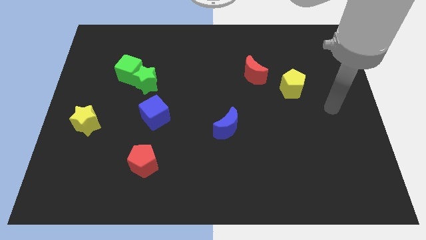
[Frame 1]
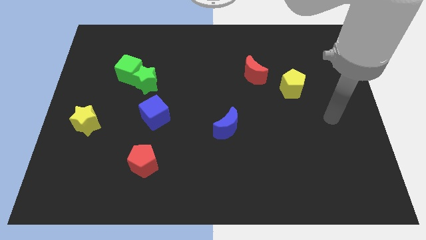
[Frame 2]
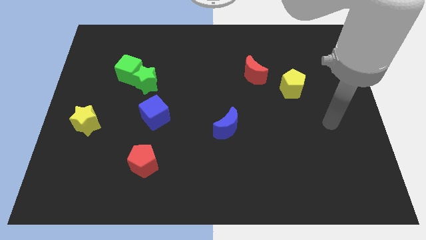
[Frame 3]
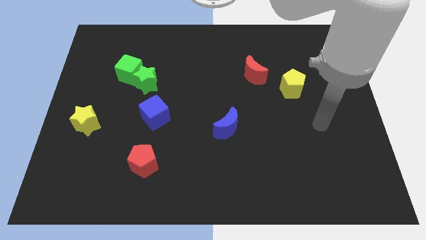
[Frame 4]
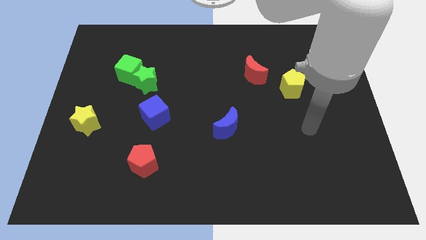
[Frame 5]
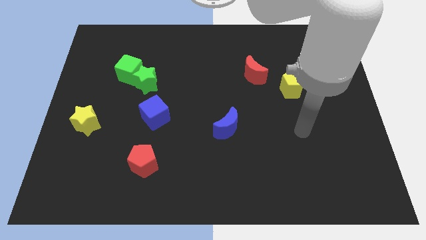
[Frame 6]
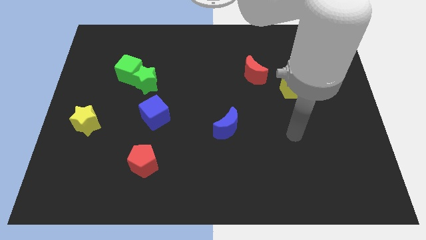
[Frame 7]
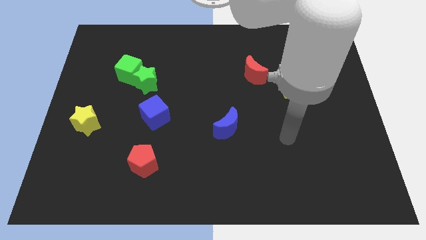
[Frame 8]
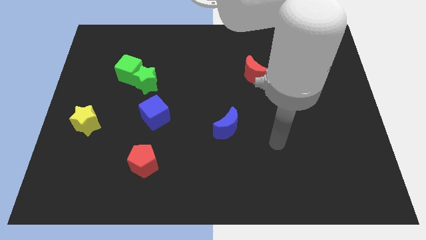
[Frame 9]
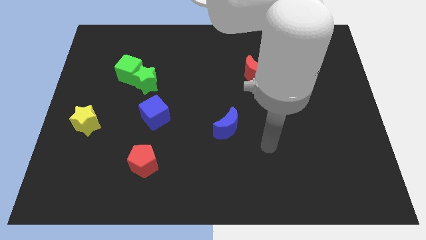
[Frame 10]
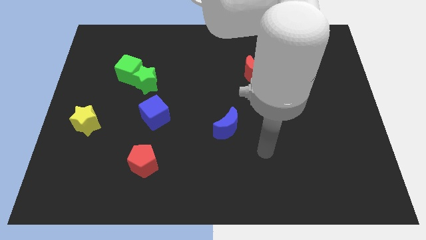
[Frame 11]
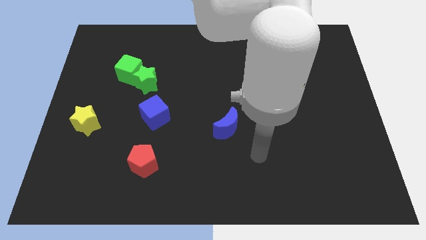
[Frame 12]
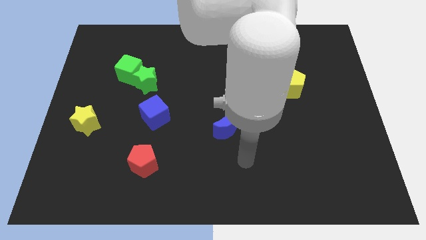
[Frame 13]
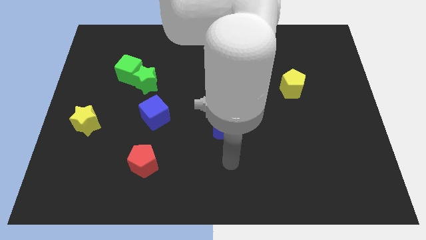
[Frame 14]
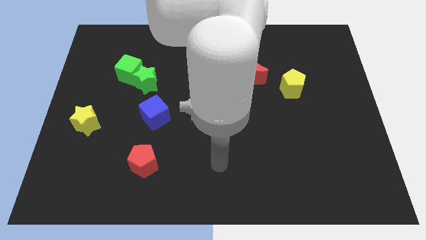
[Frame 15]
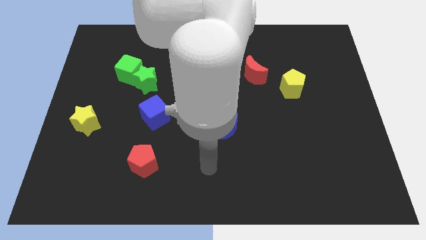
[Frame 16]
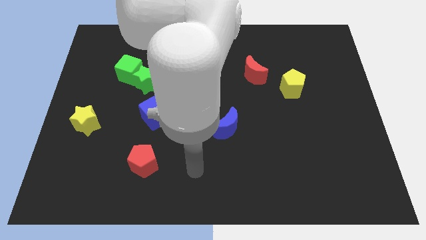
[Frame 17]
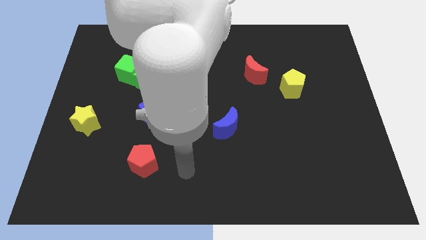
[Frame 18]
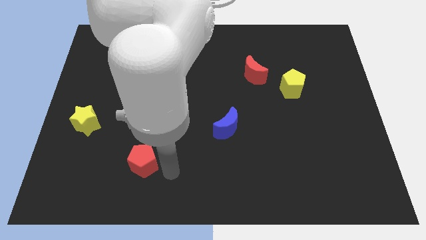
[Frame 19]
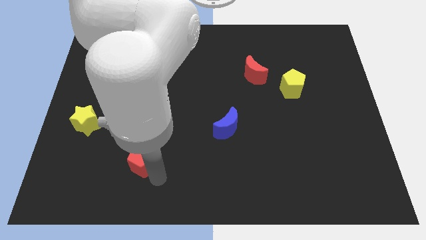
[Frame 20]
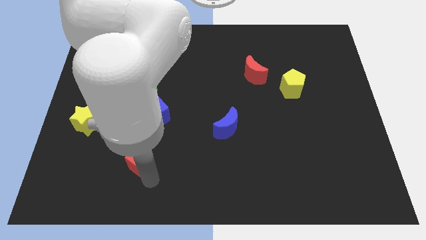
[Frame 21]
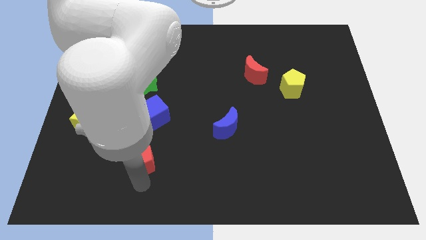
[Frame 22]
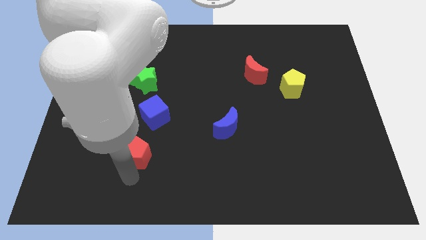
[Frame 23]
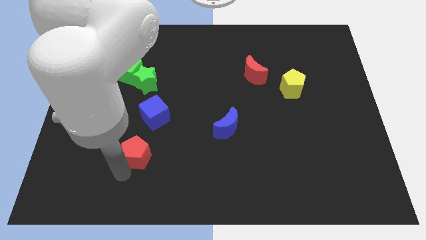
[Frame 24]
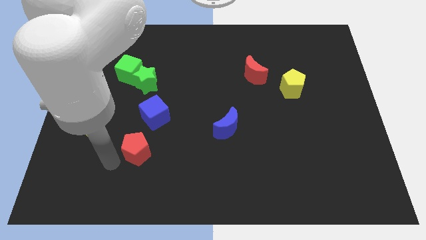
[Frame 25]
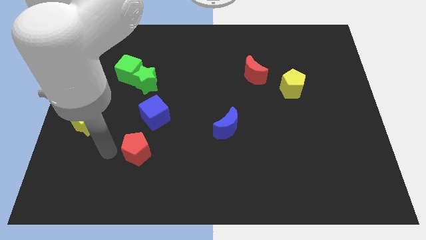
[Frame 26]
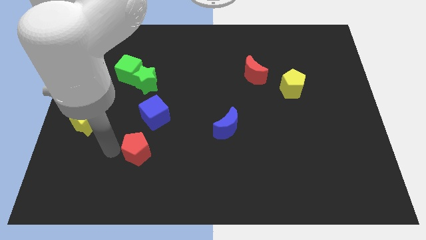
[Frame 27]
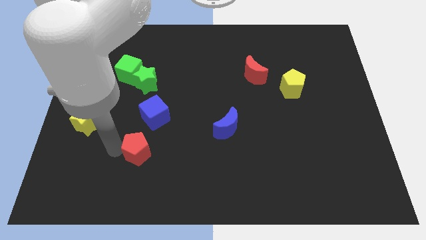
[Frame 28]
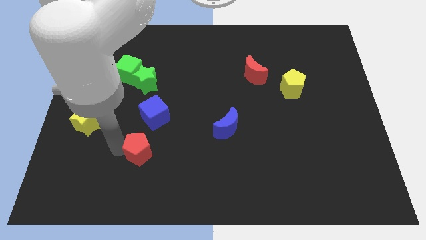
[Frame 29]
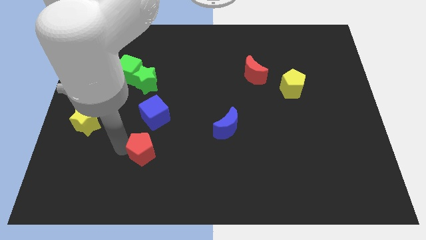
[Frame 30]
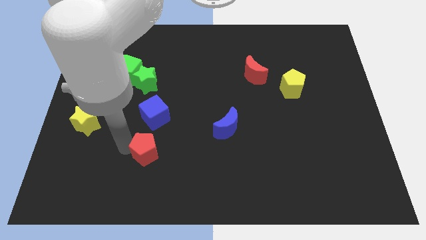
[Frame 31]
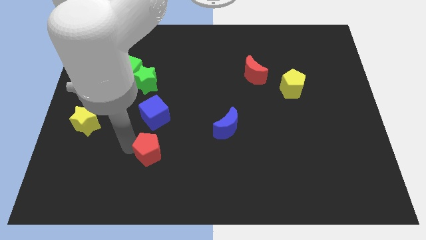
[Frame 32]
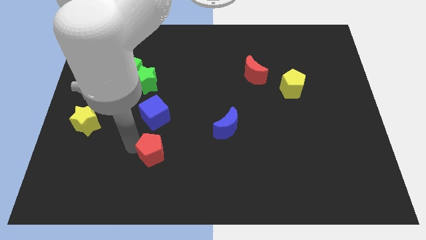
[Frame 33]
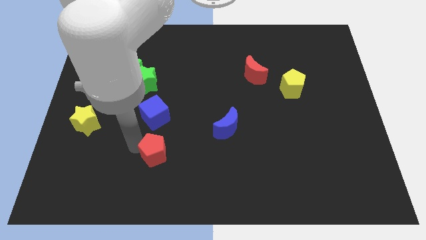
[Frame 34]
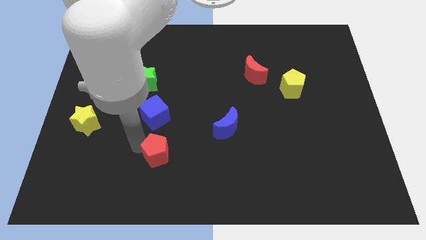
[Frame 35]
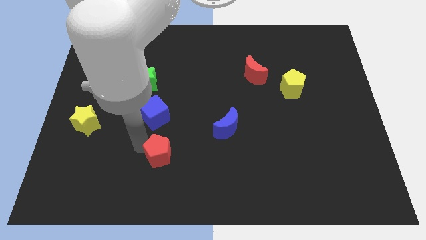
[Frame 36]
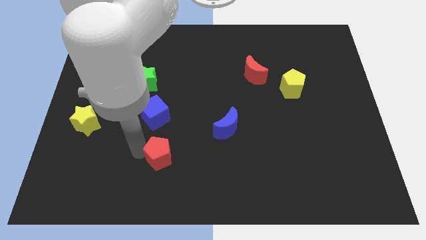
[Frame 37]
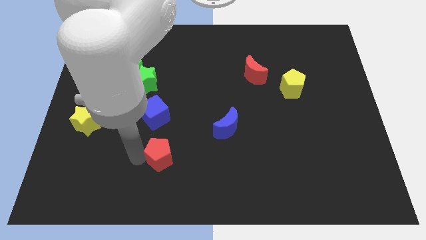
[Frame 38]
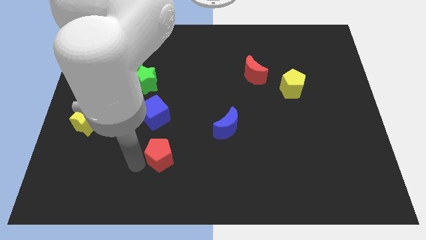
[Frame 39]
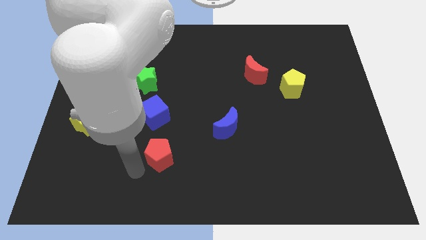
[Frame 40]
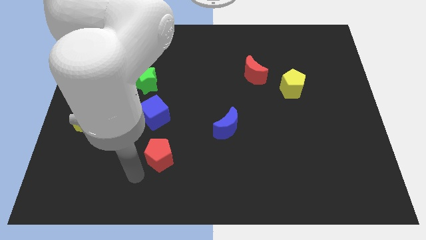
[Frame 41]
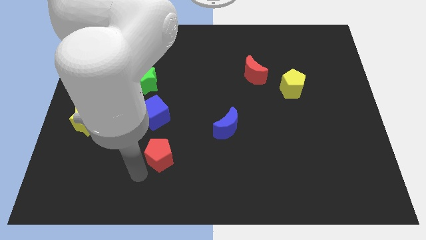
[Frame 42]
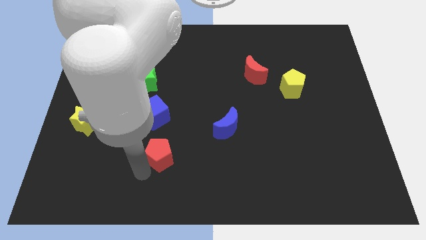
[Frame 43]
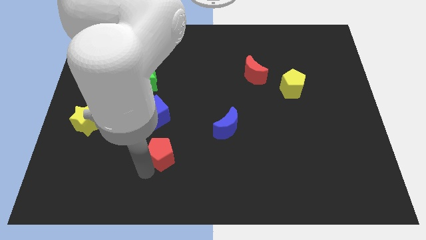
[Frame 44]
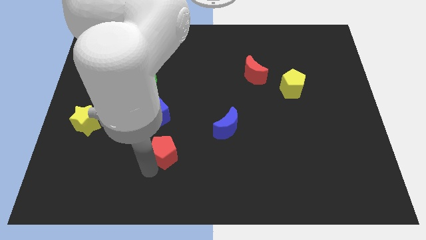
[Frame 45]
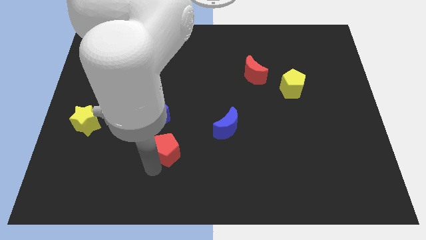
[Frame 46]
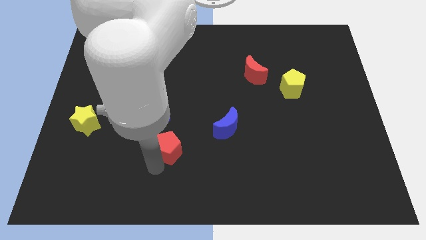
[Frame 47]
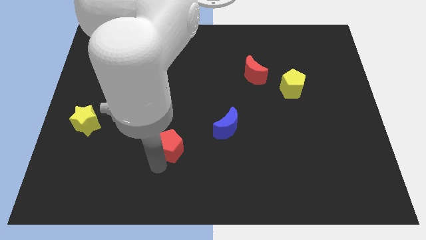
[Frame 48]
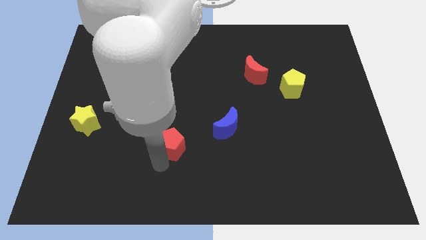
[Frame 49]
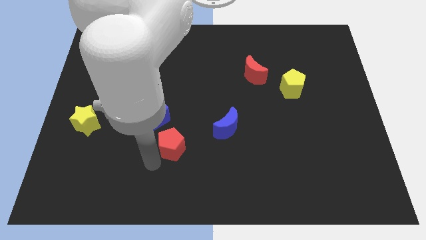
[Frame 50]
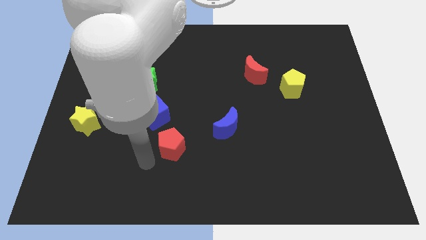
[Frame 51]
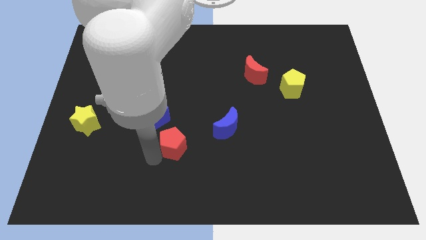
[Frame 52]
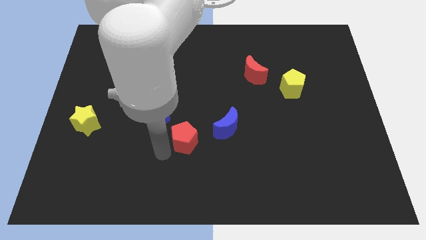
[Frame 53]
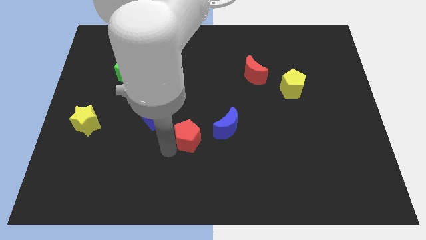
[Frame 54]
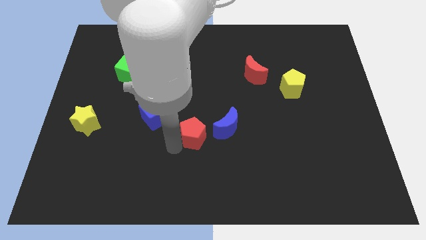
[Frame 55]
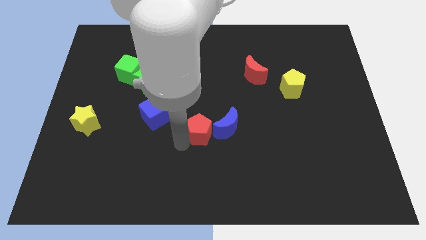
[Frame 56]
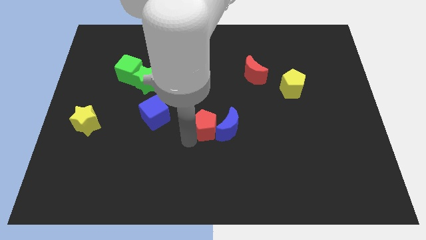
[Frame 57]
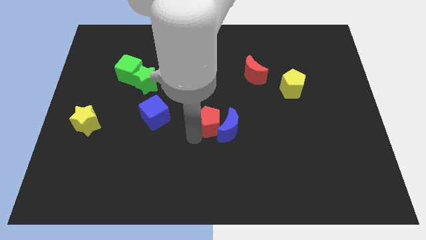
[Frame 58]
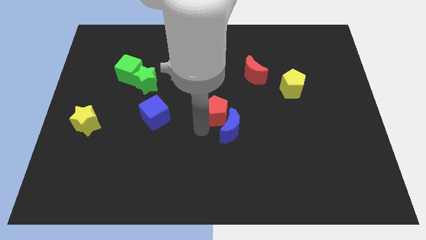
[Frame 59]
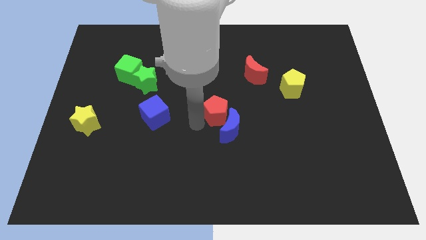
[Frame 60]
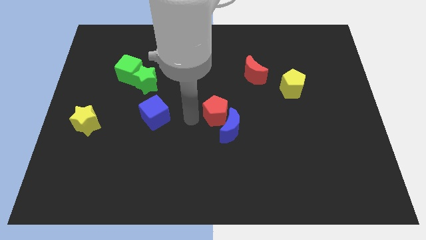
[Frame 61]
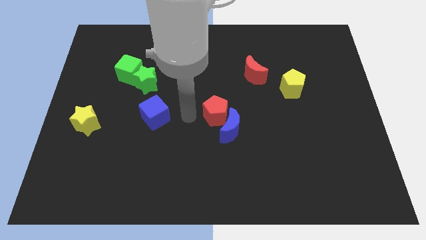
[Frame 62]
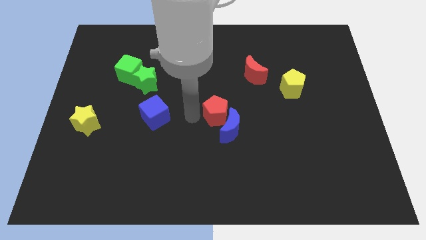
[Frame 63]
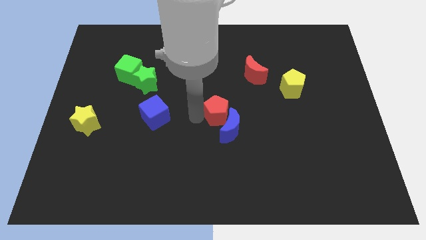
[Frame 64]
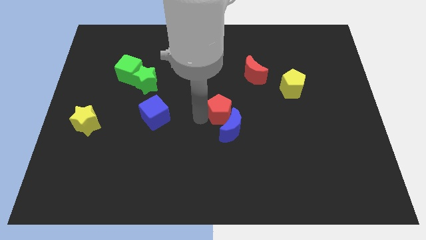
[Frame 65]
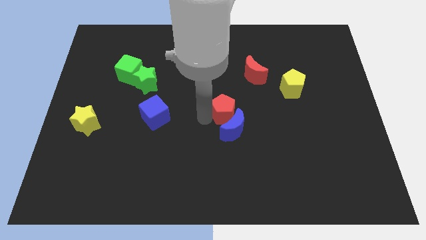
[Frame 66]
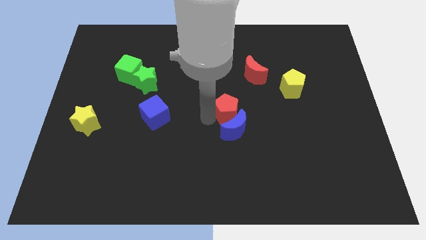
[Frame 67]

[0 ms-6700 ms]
push the red pentagon diagonally up and to the right of the blue moon

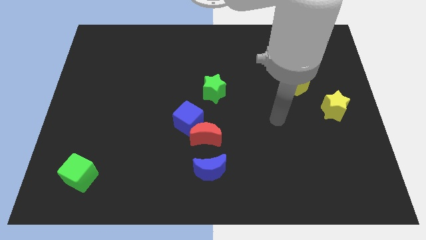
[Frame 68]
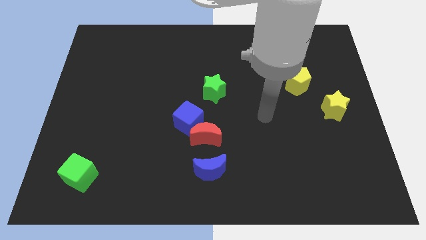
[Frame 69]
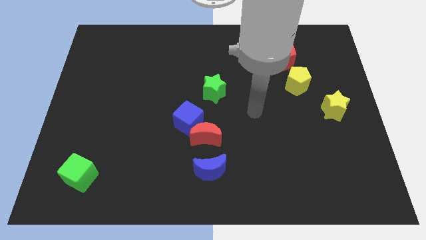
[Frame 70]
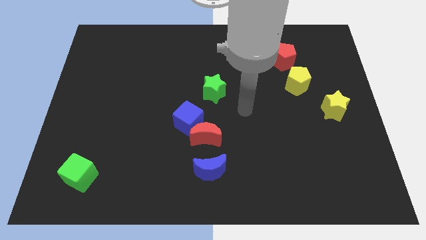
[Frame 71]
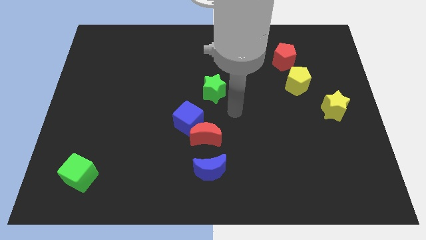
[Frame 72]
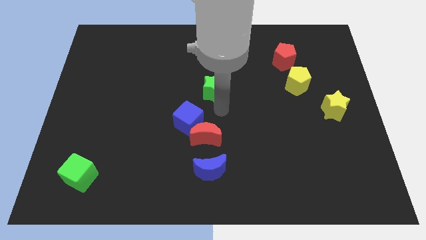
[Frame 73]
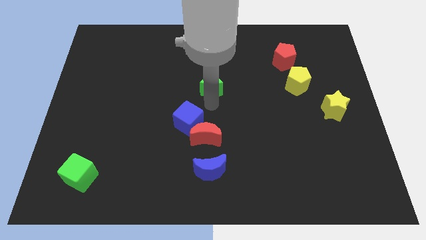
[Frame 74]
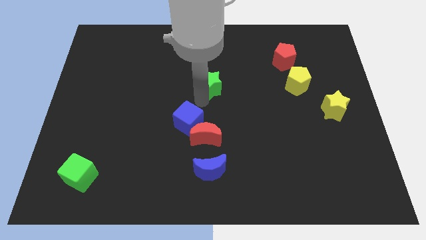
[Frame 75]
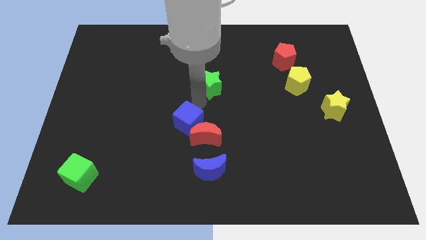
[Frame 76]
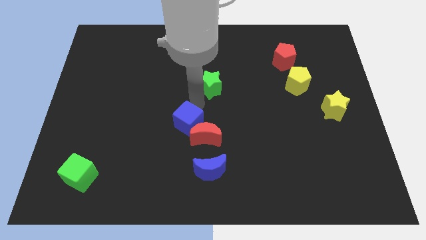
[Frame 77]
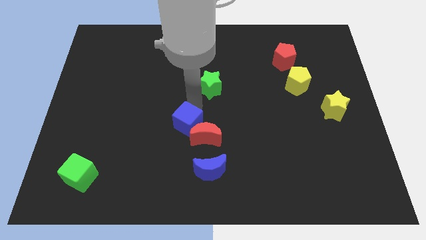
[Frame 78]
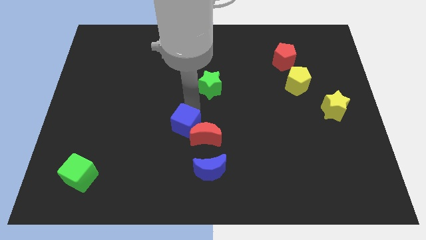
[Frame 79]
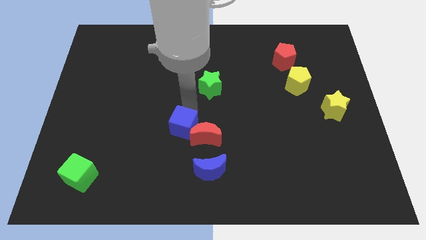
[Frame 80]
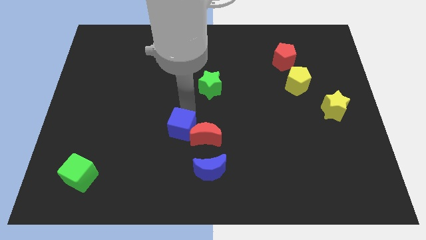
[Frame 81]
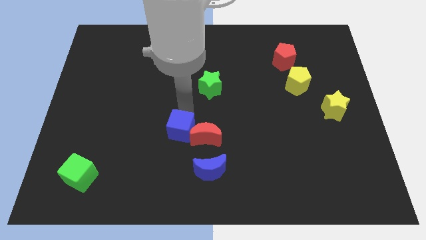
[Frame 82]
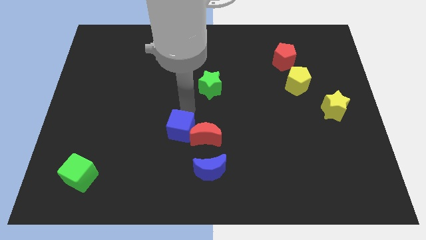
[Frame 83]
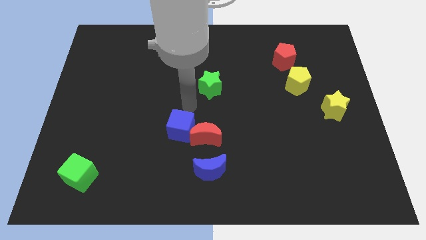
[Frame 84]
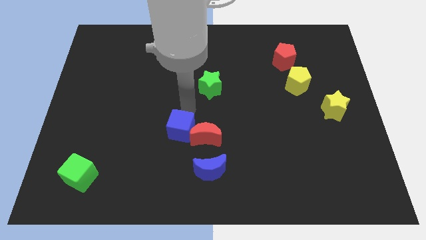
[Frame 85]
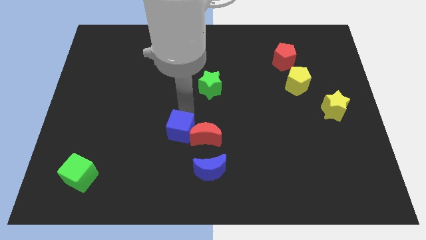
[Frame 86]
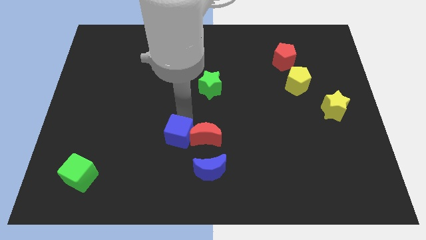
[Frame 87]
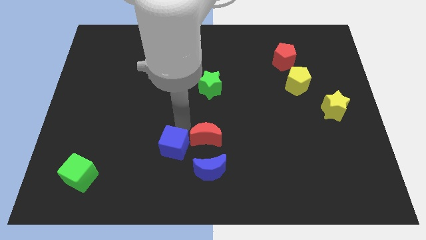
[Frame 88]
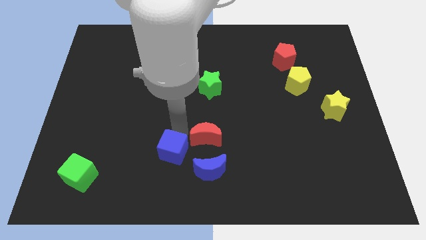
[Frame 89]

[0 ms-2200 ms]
push the blue cube to the left of the blue moon
